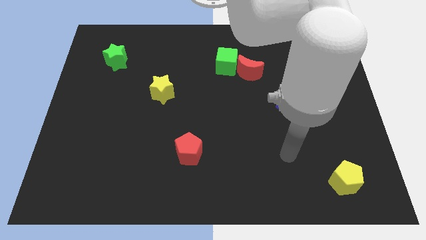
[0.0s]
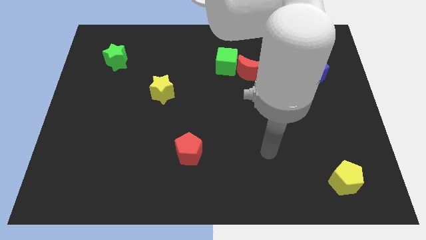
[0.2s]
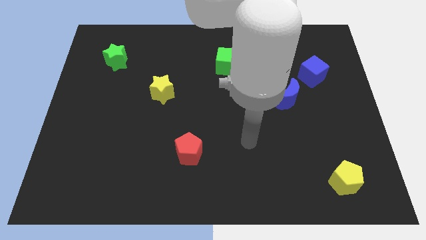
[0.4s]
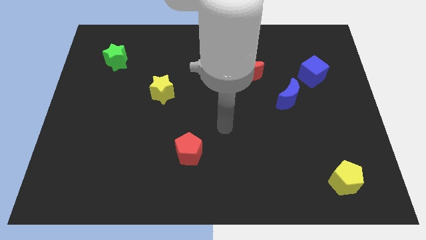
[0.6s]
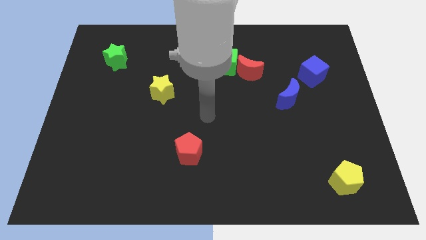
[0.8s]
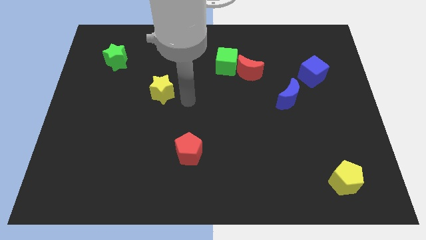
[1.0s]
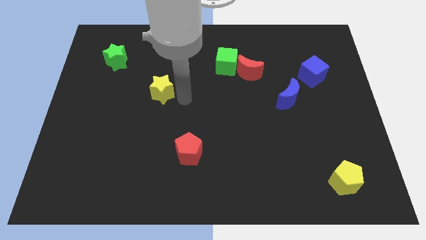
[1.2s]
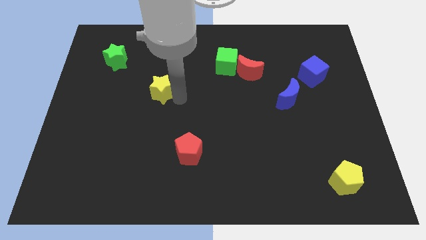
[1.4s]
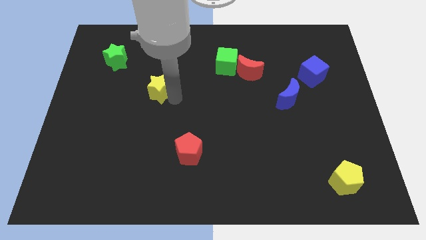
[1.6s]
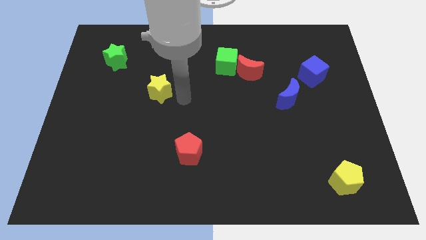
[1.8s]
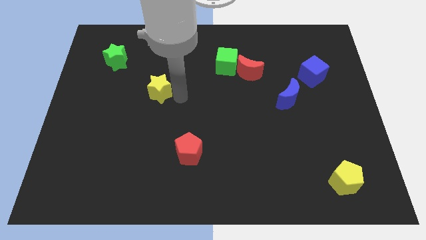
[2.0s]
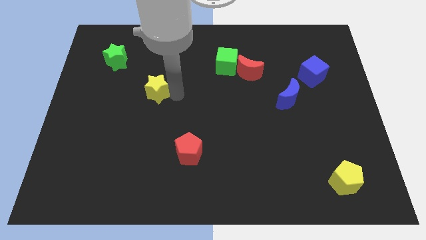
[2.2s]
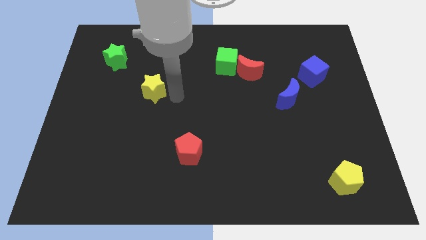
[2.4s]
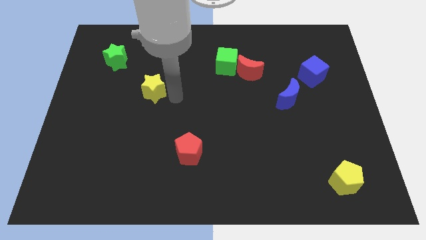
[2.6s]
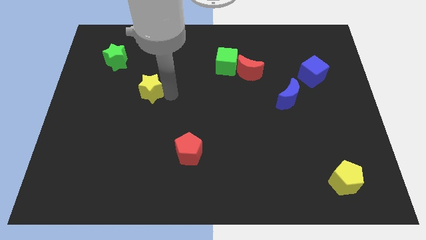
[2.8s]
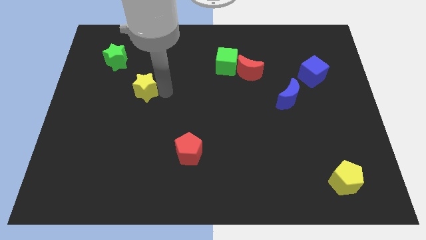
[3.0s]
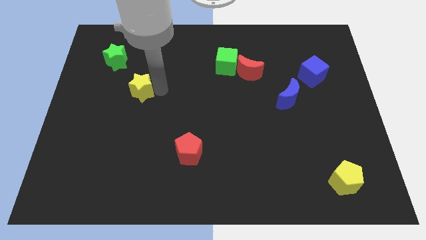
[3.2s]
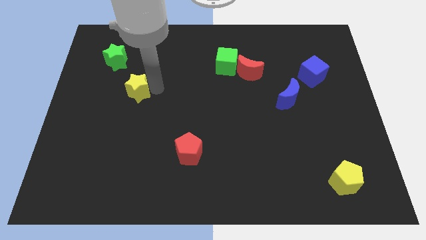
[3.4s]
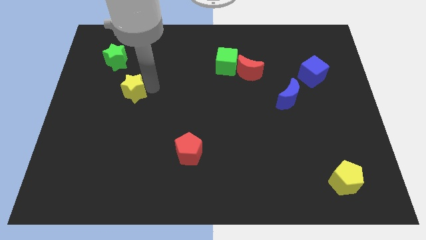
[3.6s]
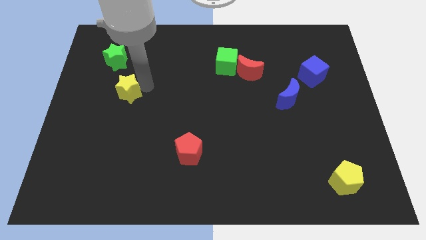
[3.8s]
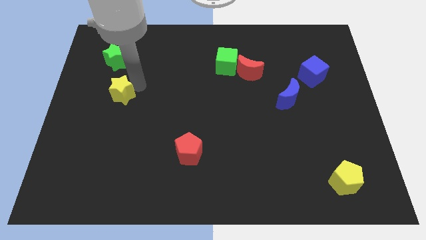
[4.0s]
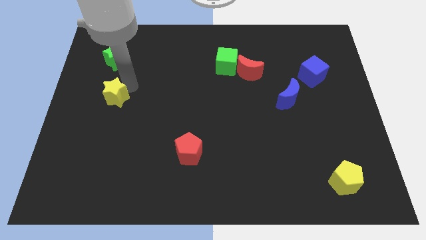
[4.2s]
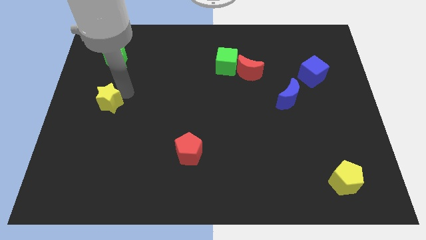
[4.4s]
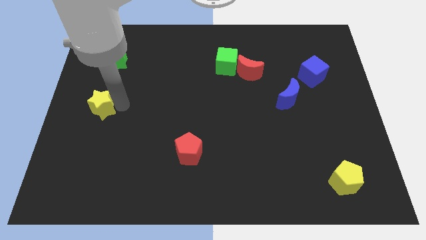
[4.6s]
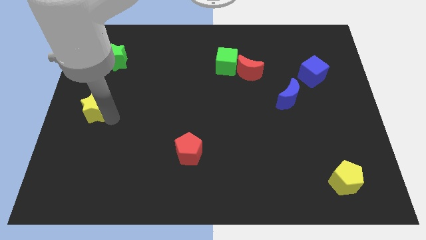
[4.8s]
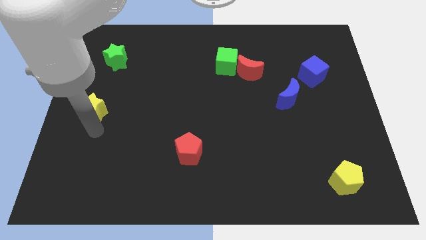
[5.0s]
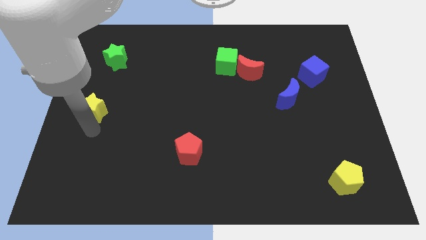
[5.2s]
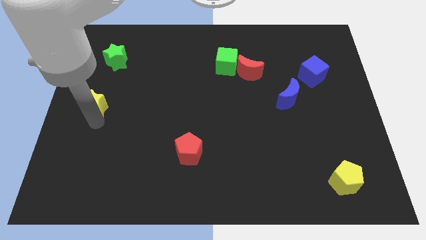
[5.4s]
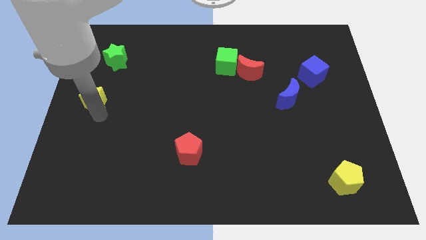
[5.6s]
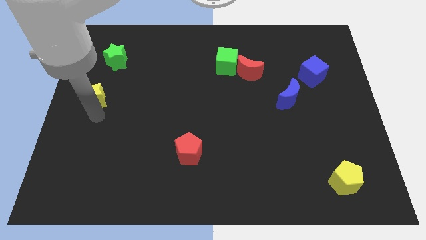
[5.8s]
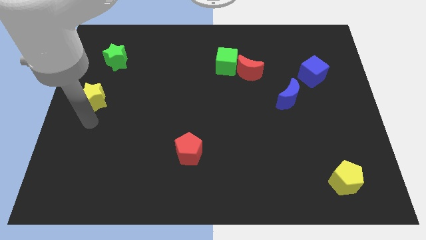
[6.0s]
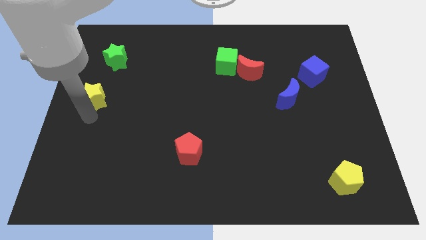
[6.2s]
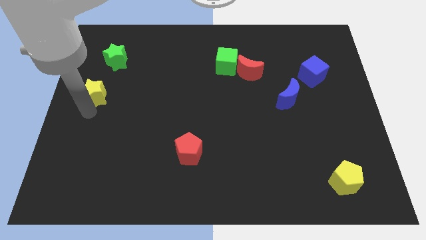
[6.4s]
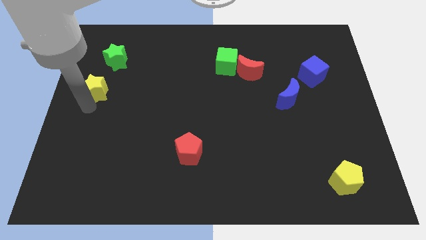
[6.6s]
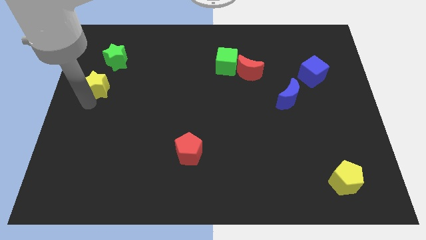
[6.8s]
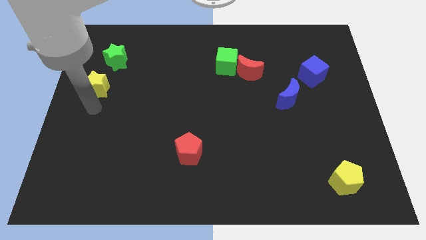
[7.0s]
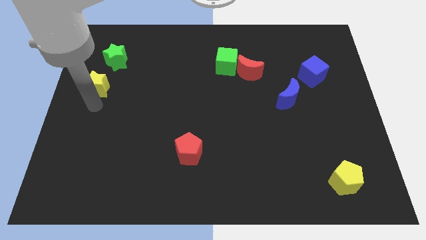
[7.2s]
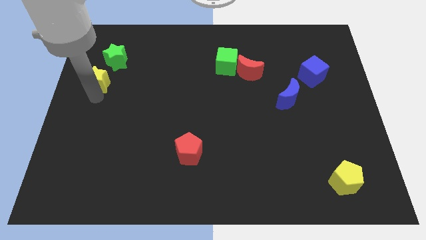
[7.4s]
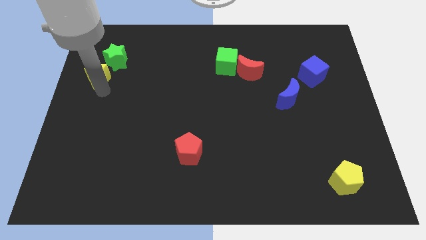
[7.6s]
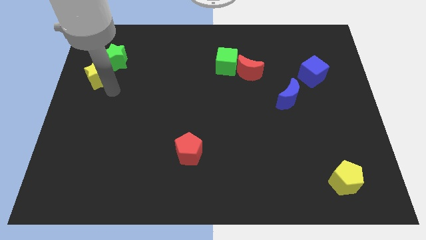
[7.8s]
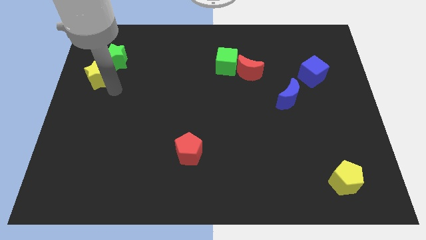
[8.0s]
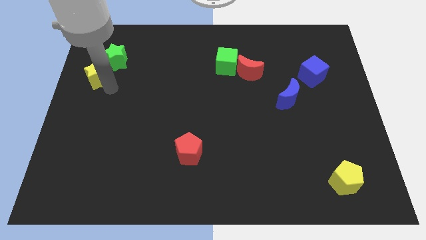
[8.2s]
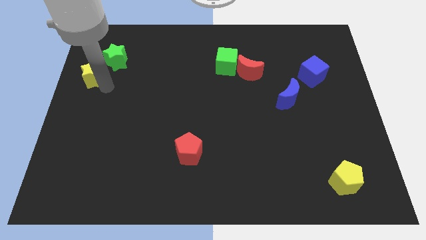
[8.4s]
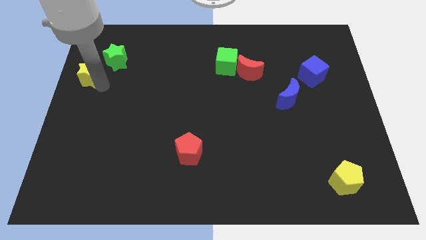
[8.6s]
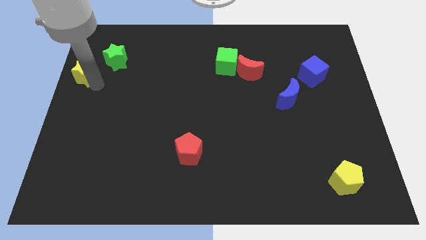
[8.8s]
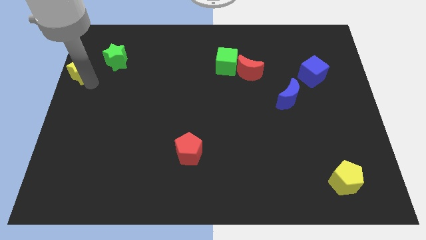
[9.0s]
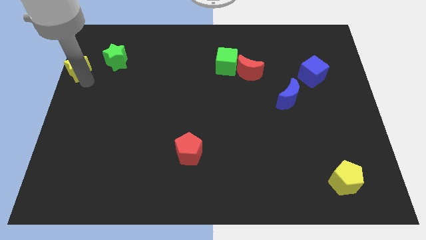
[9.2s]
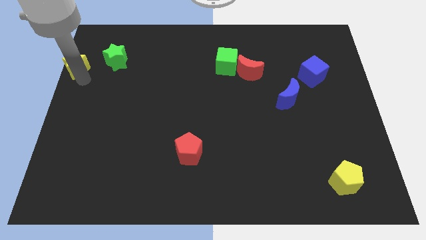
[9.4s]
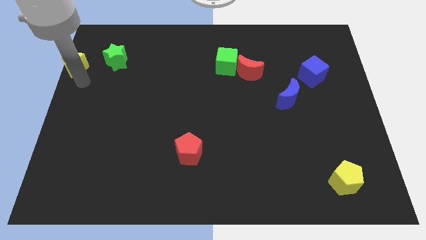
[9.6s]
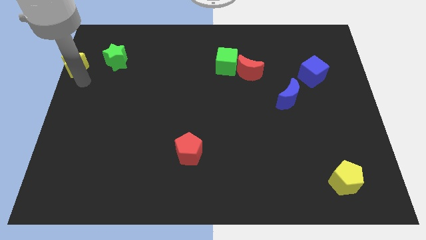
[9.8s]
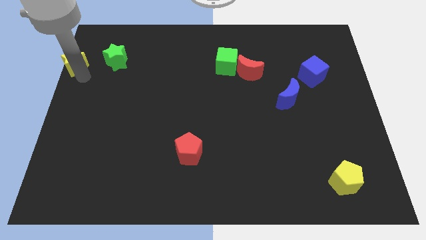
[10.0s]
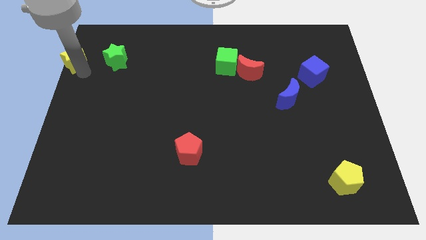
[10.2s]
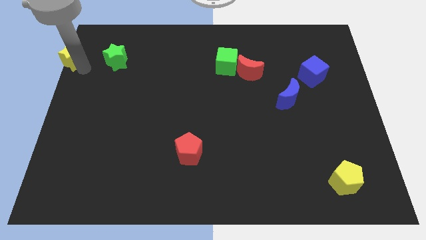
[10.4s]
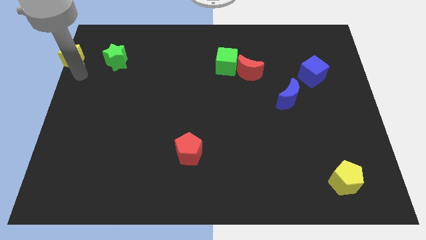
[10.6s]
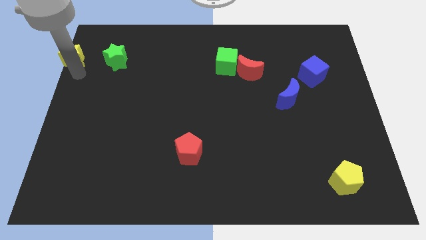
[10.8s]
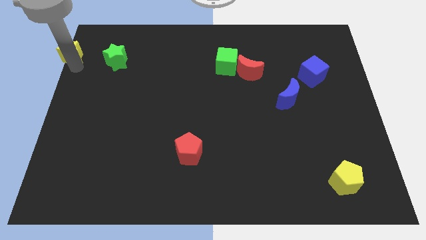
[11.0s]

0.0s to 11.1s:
put the yellow star to the top left corner
